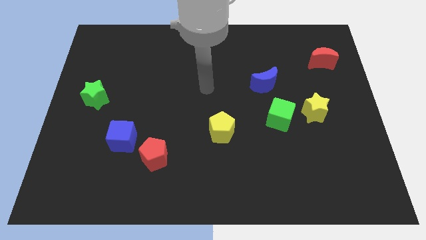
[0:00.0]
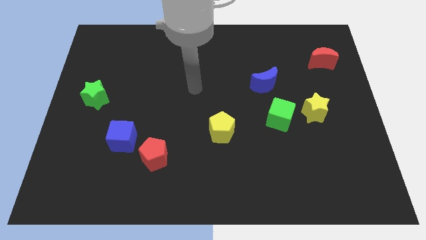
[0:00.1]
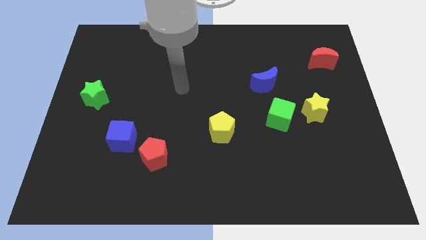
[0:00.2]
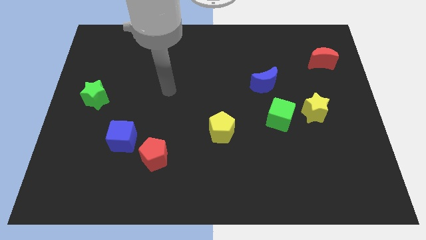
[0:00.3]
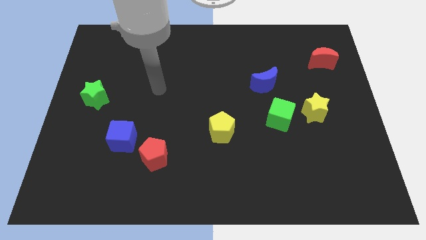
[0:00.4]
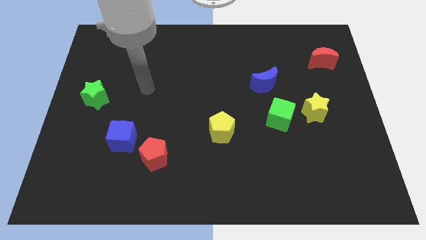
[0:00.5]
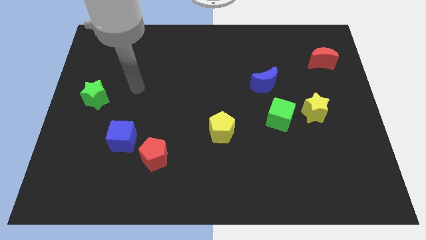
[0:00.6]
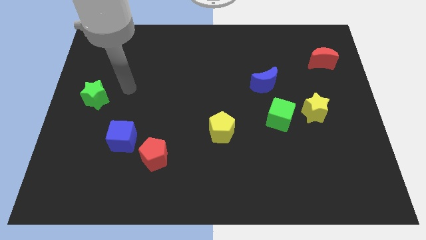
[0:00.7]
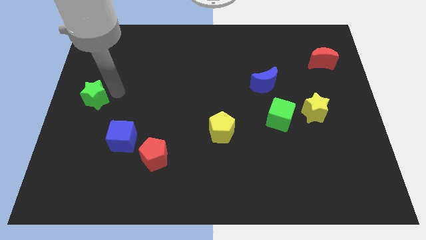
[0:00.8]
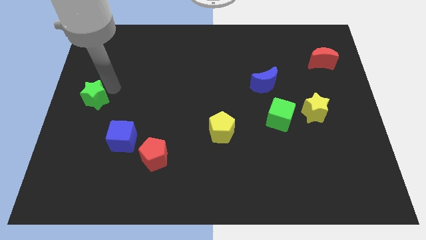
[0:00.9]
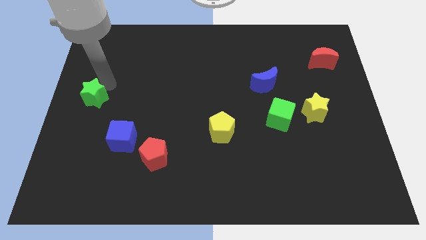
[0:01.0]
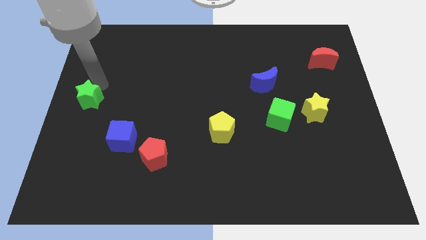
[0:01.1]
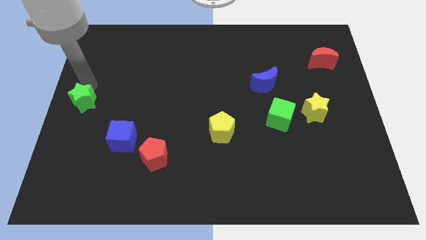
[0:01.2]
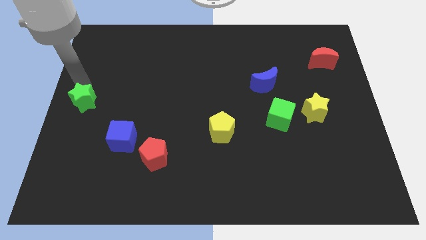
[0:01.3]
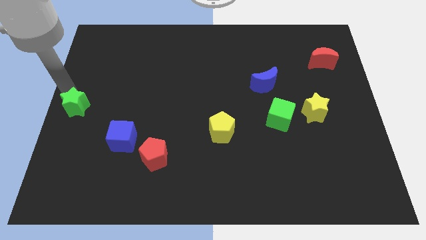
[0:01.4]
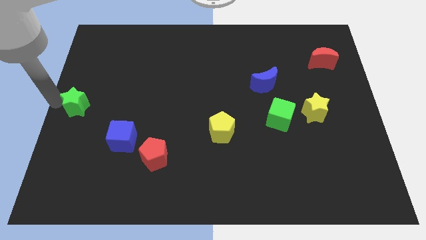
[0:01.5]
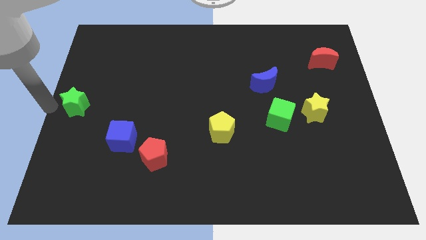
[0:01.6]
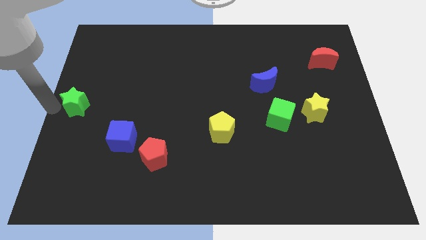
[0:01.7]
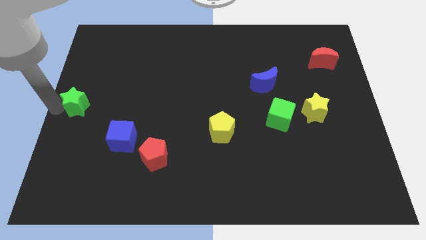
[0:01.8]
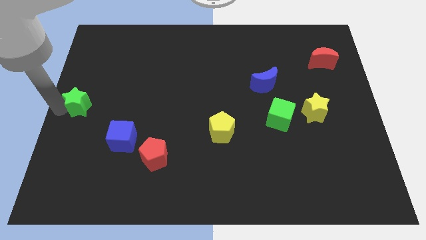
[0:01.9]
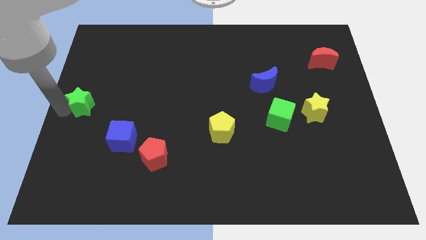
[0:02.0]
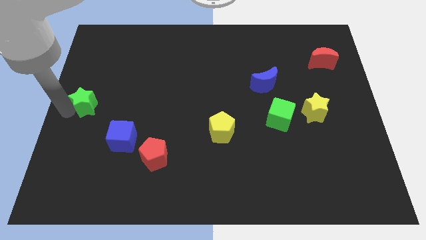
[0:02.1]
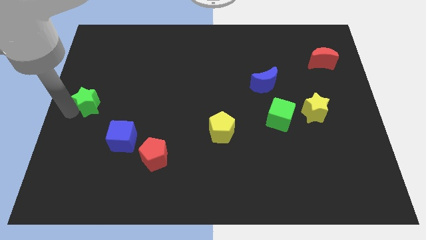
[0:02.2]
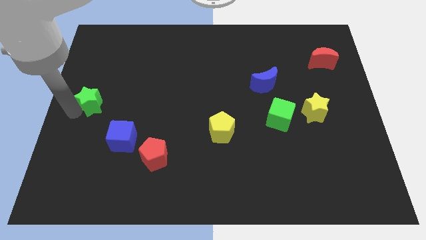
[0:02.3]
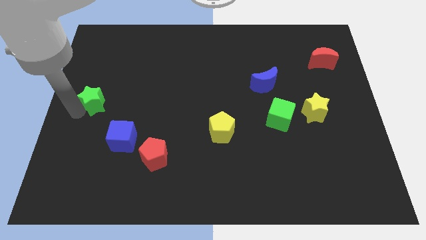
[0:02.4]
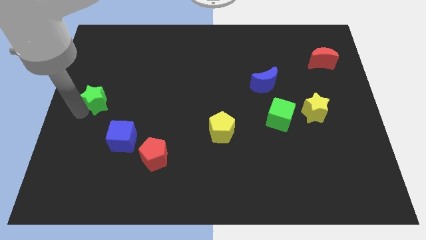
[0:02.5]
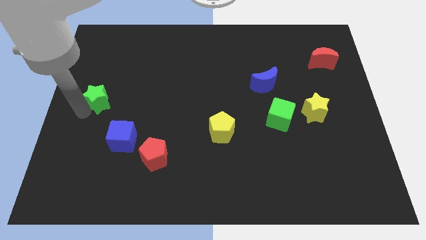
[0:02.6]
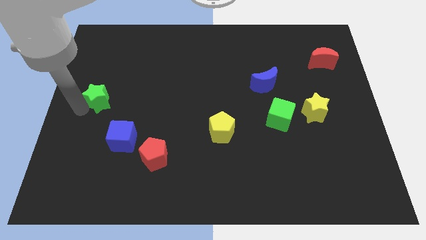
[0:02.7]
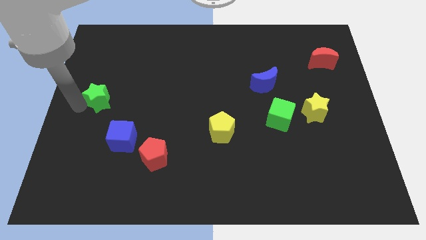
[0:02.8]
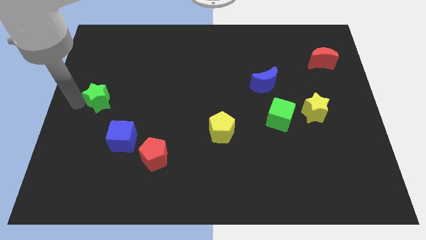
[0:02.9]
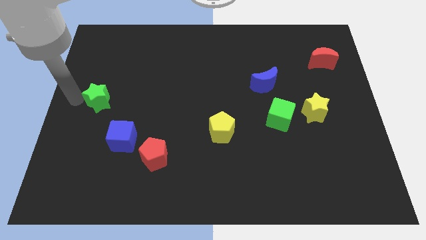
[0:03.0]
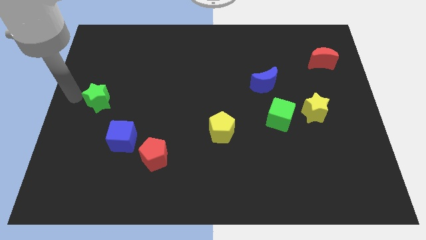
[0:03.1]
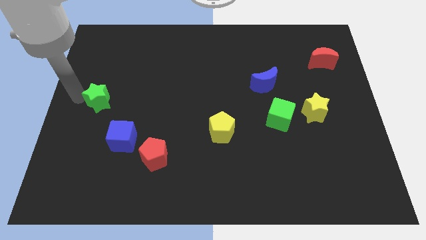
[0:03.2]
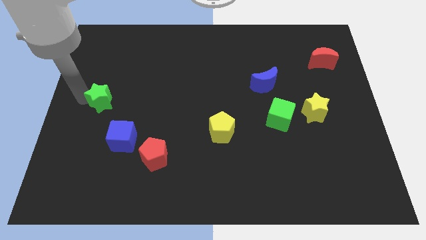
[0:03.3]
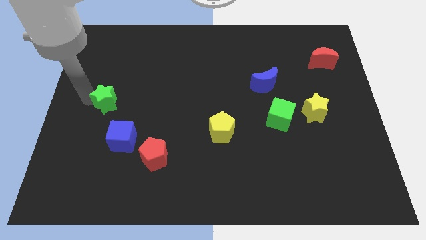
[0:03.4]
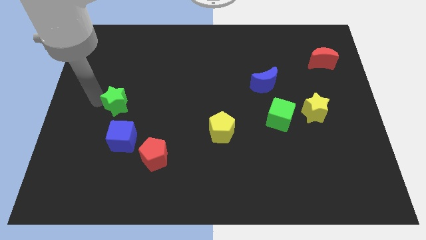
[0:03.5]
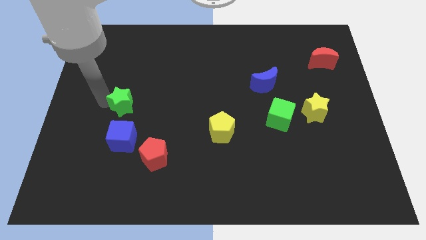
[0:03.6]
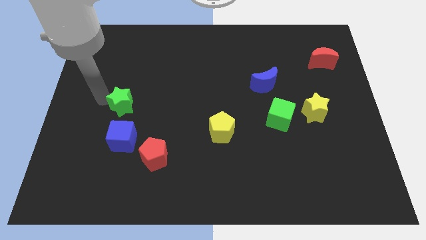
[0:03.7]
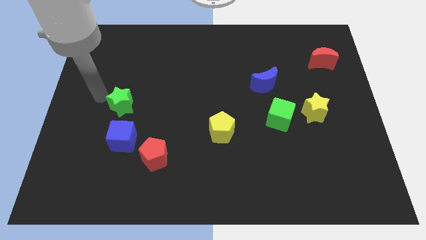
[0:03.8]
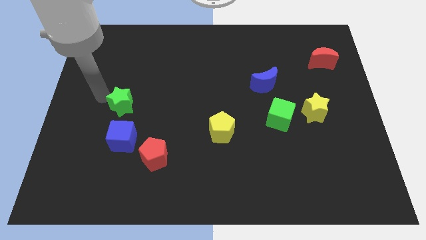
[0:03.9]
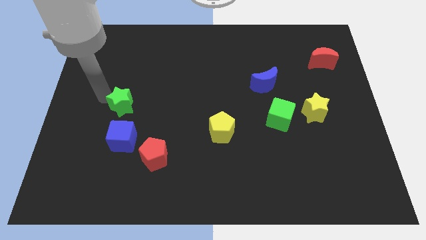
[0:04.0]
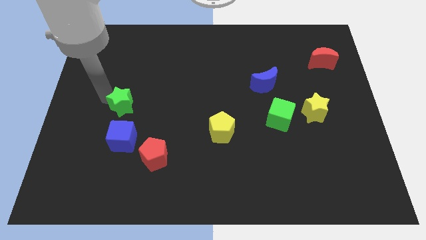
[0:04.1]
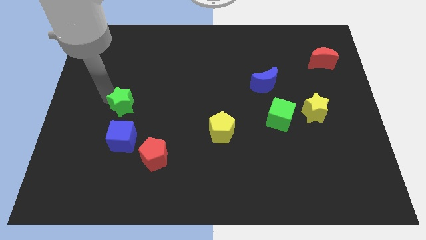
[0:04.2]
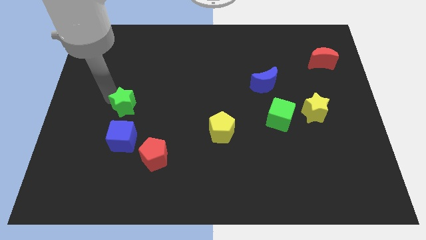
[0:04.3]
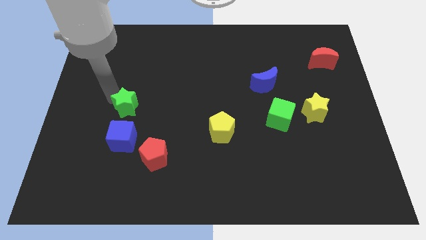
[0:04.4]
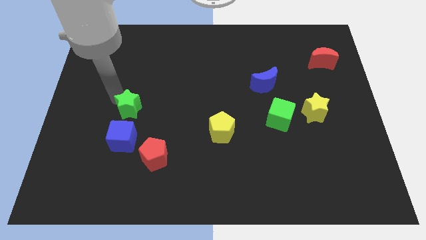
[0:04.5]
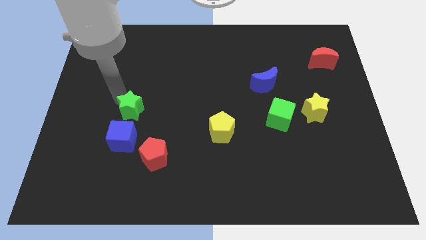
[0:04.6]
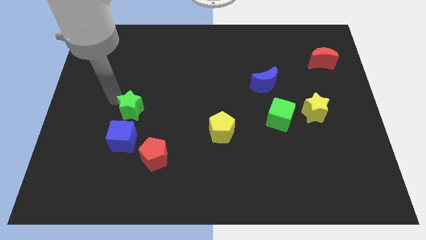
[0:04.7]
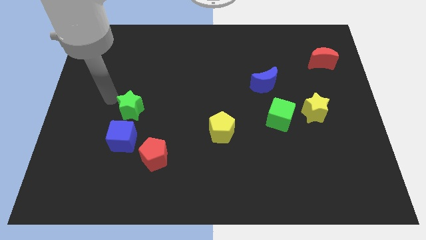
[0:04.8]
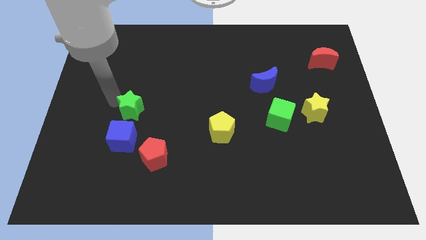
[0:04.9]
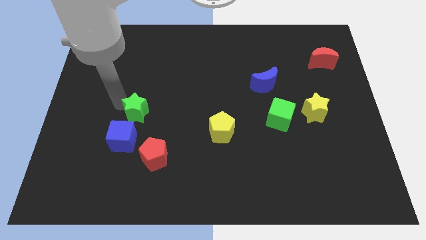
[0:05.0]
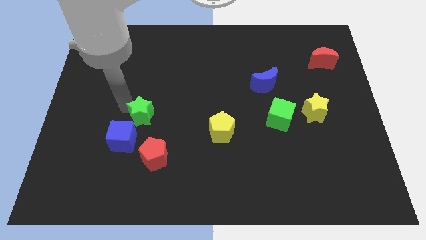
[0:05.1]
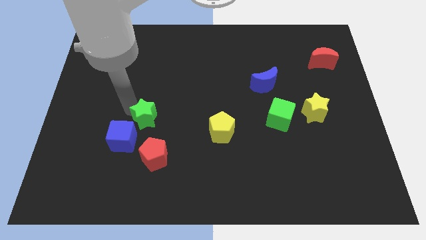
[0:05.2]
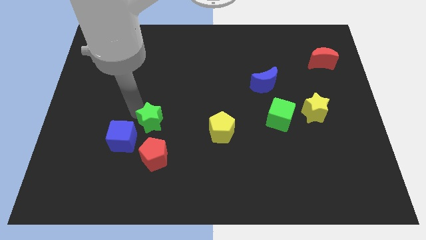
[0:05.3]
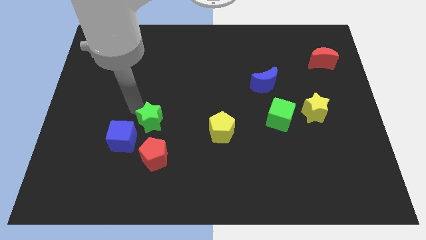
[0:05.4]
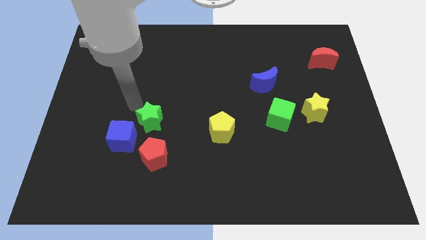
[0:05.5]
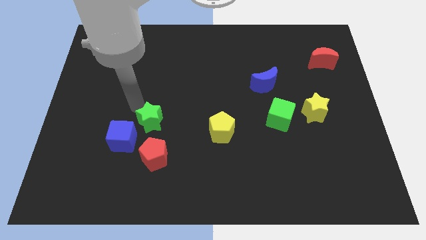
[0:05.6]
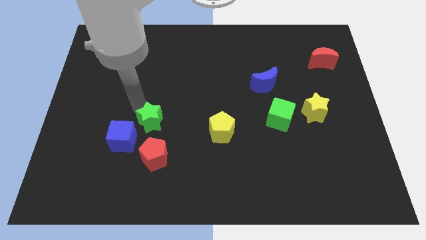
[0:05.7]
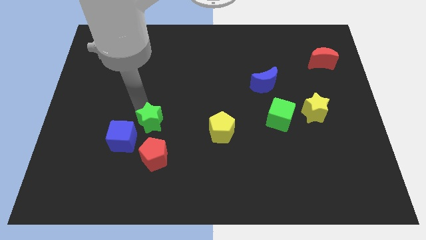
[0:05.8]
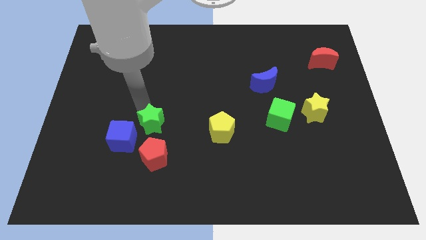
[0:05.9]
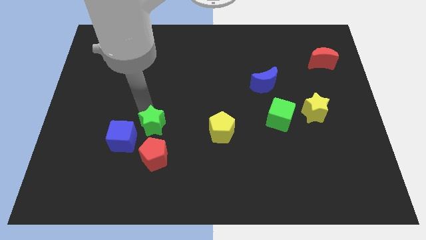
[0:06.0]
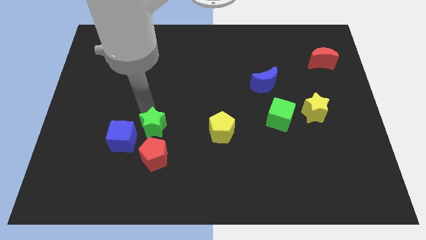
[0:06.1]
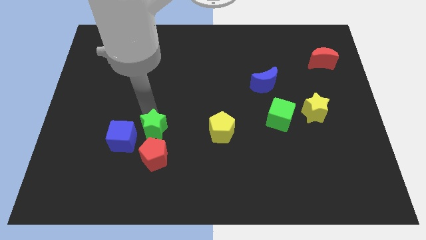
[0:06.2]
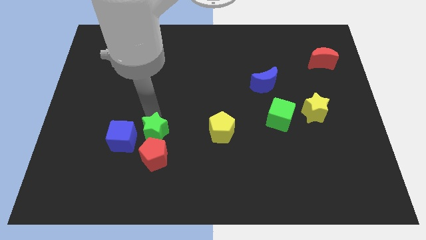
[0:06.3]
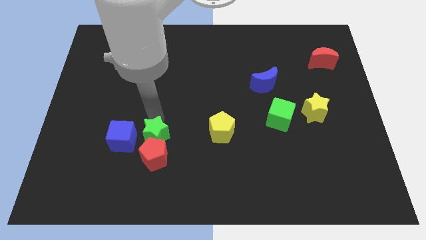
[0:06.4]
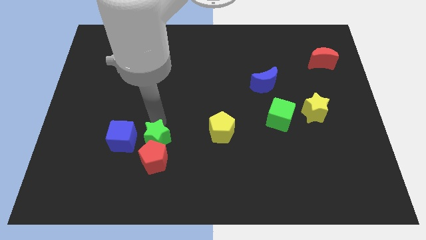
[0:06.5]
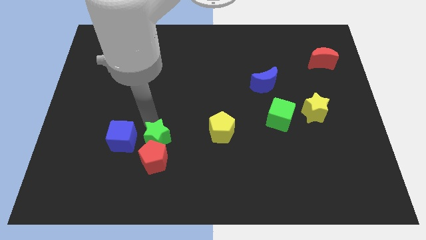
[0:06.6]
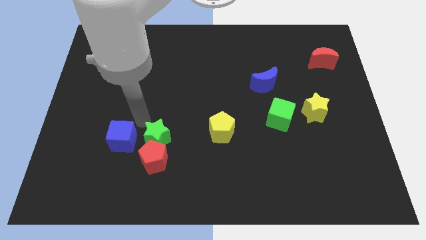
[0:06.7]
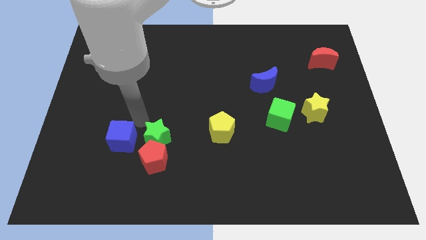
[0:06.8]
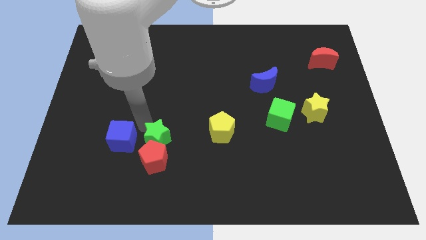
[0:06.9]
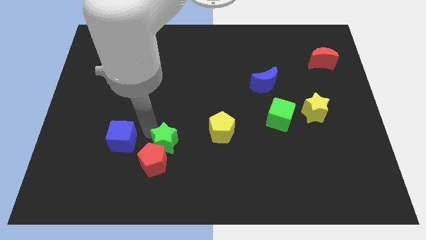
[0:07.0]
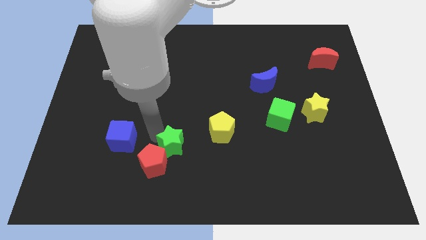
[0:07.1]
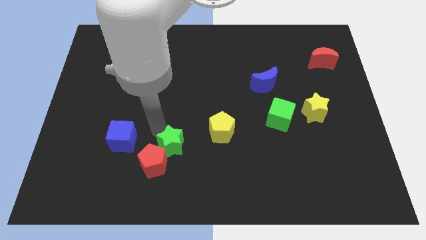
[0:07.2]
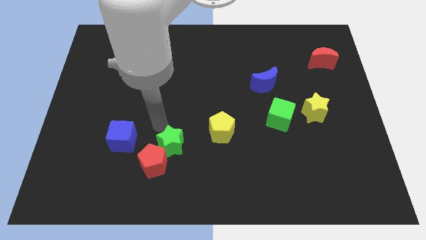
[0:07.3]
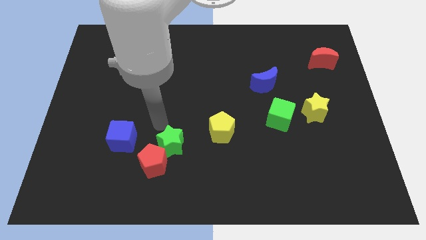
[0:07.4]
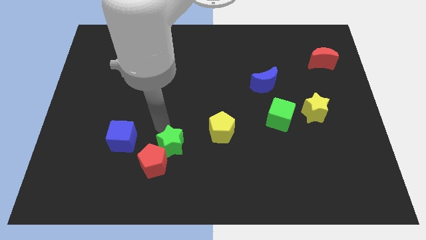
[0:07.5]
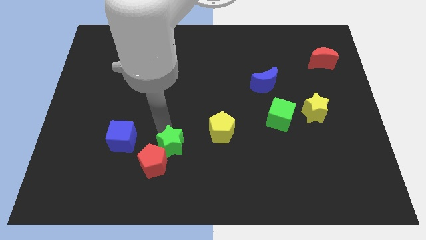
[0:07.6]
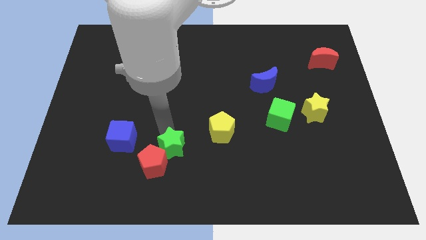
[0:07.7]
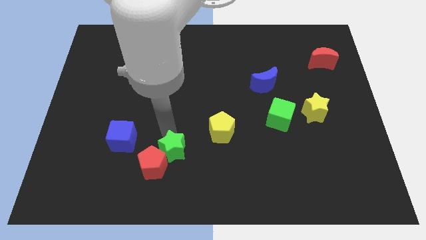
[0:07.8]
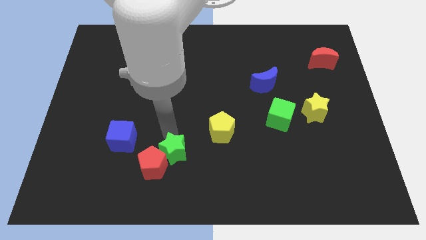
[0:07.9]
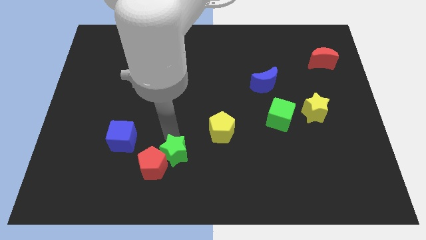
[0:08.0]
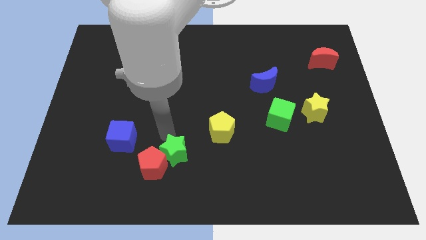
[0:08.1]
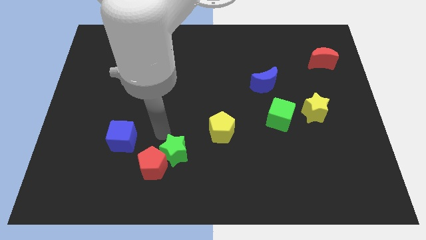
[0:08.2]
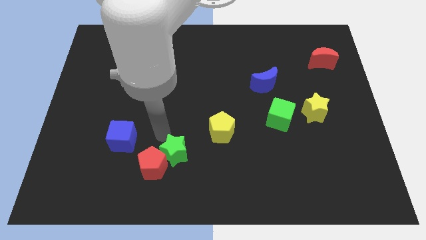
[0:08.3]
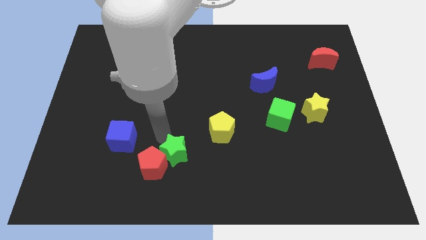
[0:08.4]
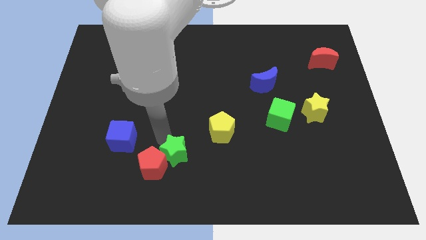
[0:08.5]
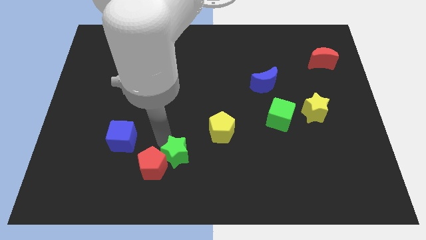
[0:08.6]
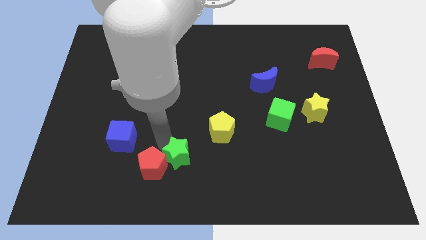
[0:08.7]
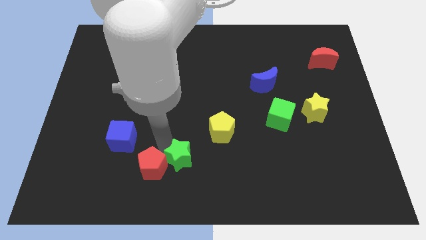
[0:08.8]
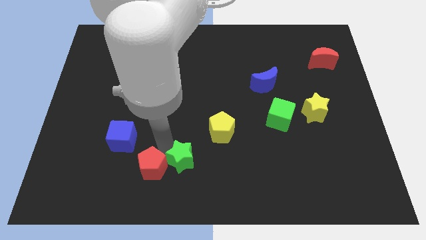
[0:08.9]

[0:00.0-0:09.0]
push the green star to the bottom
